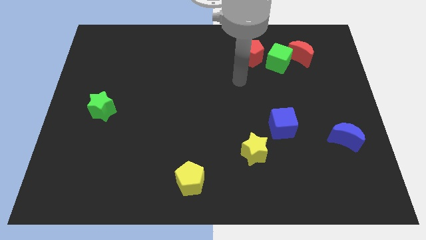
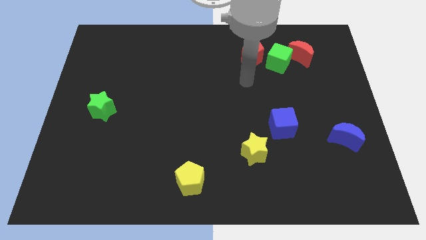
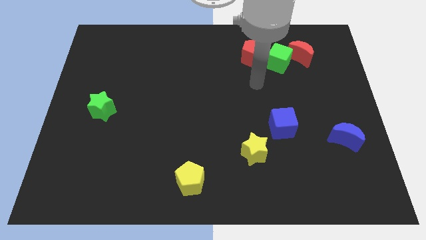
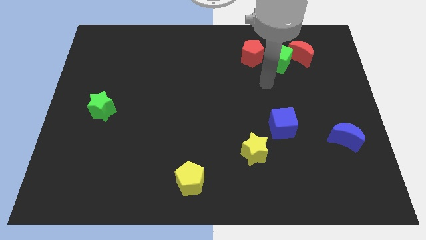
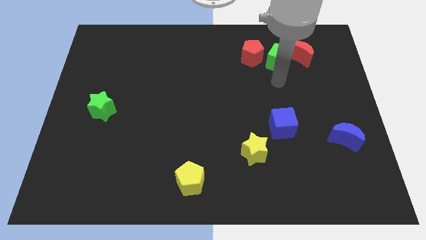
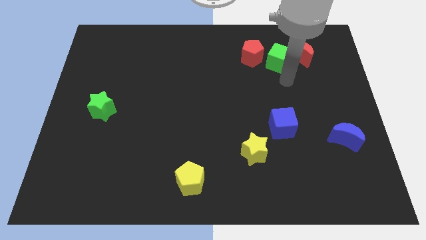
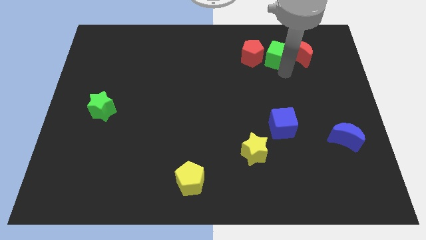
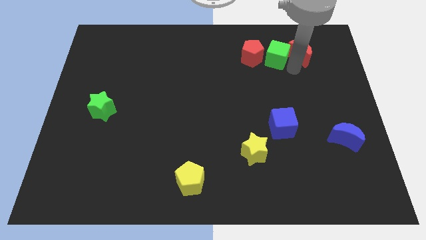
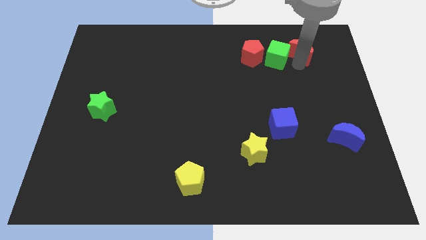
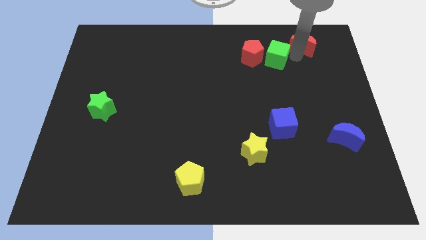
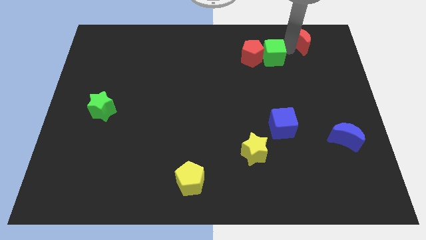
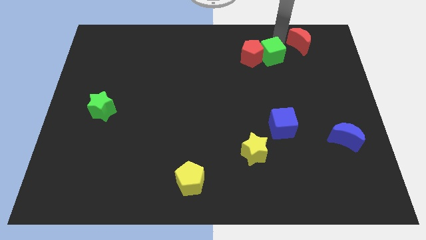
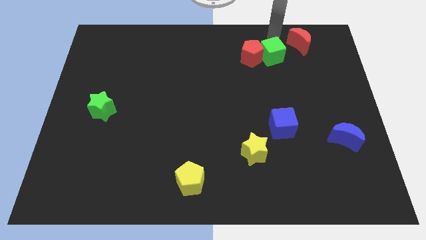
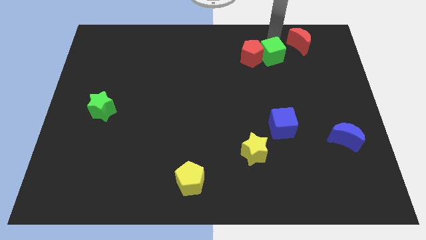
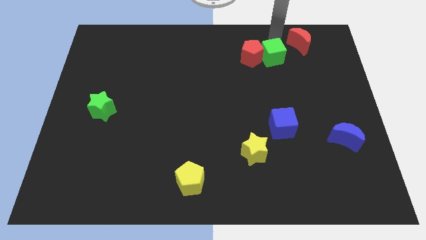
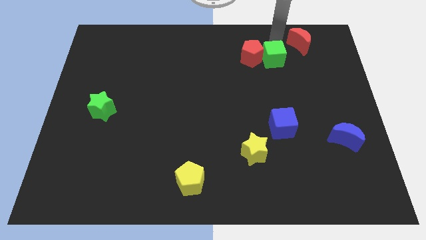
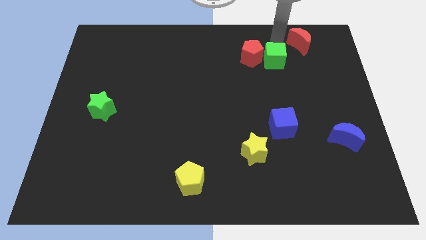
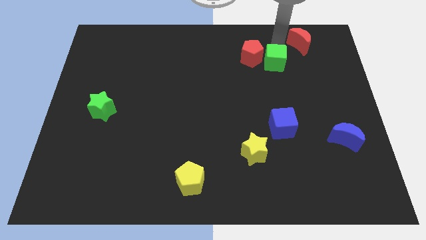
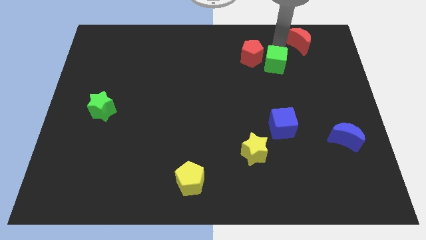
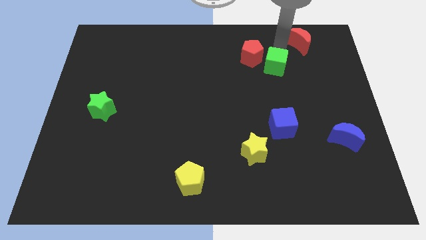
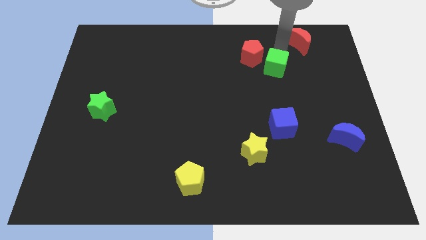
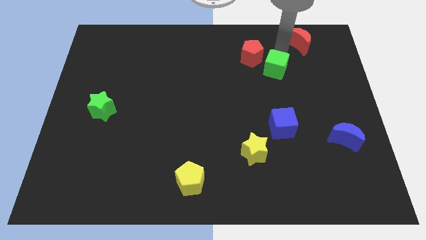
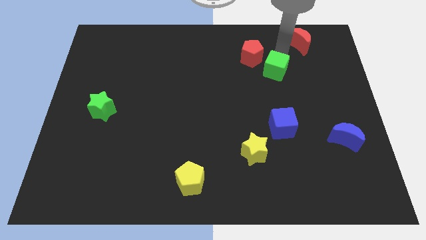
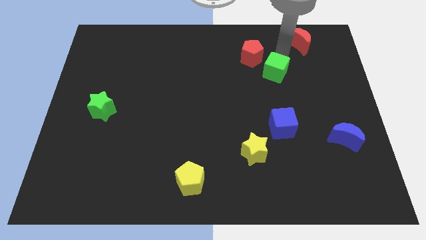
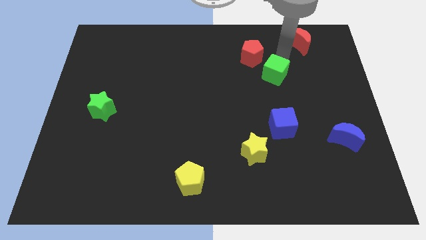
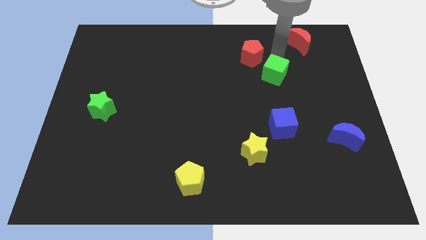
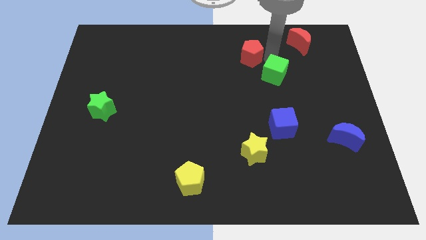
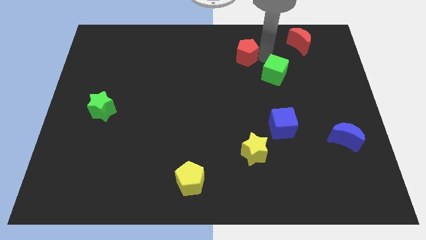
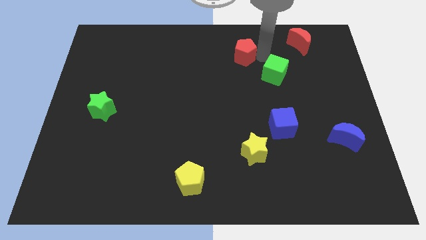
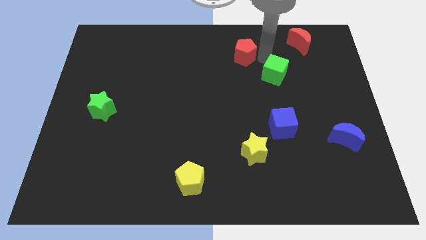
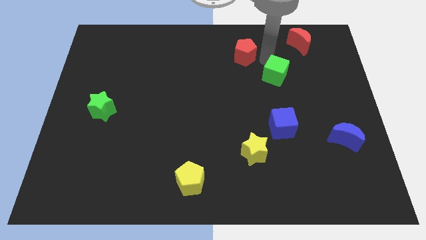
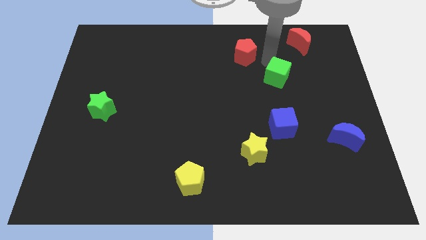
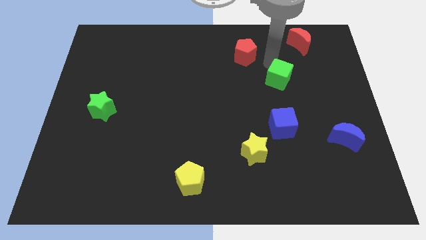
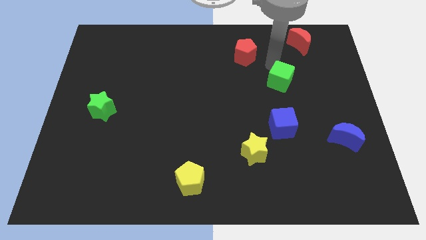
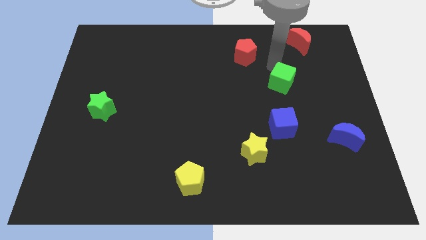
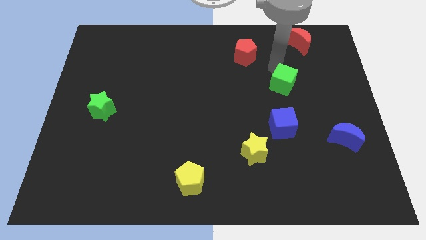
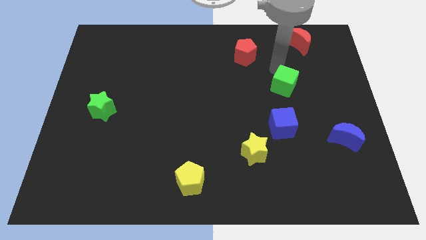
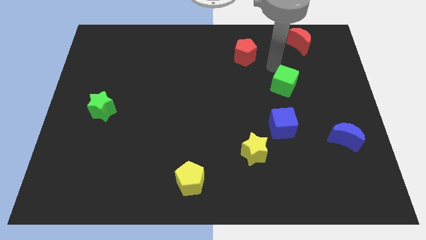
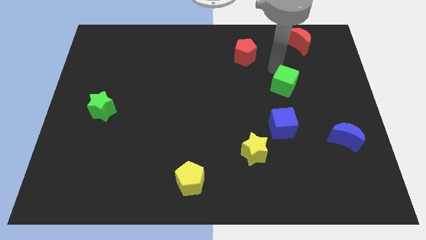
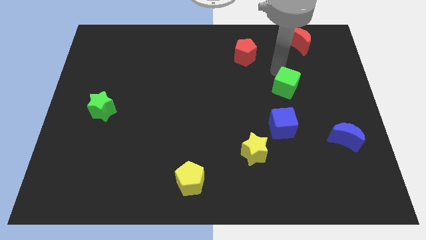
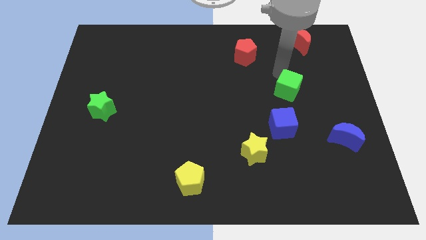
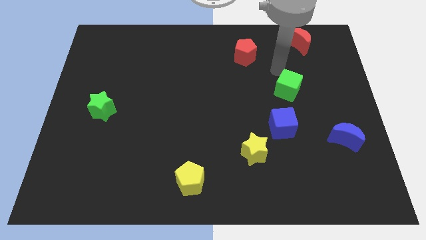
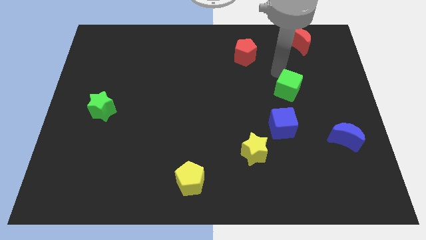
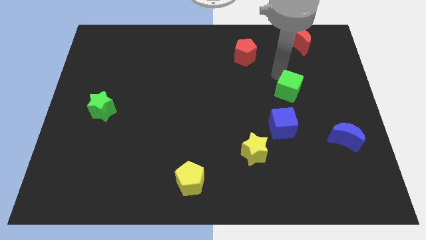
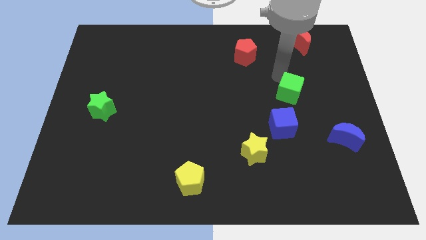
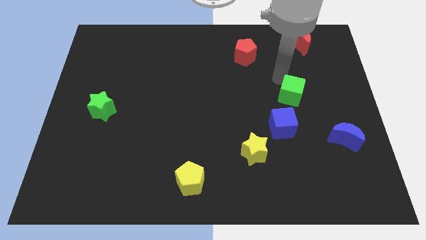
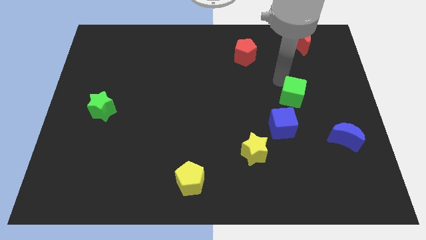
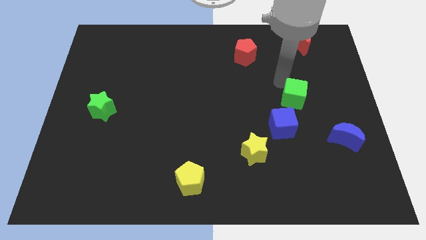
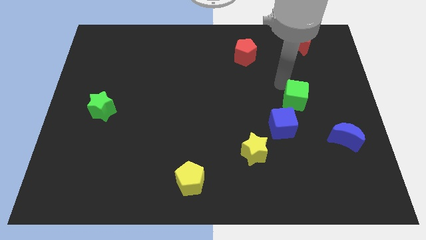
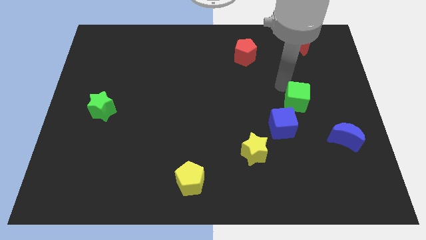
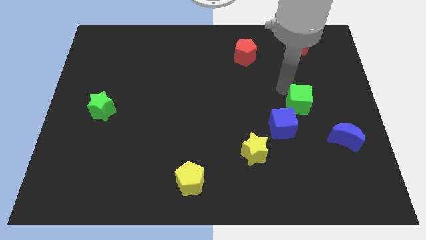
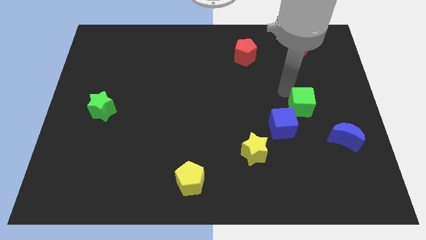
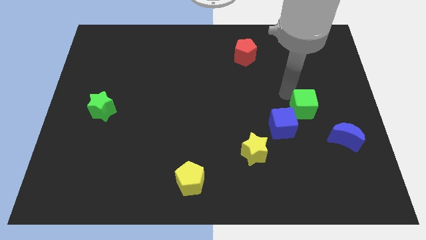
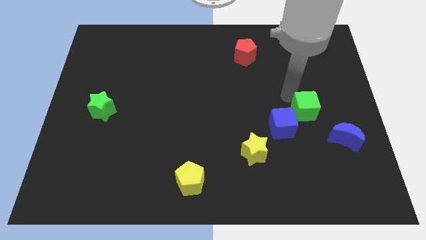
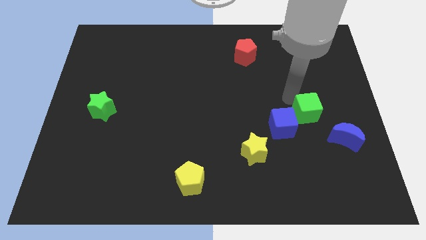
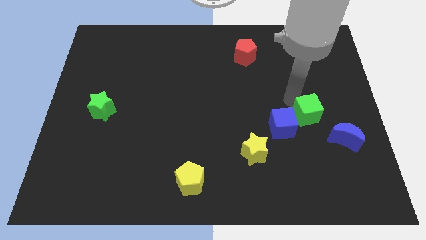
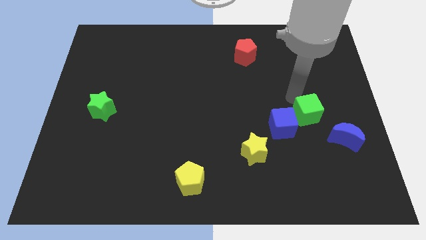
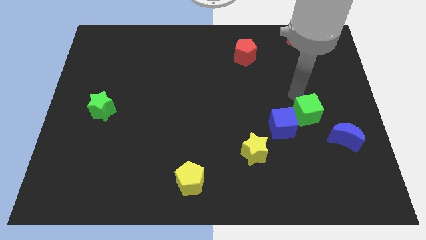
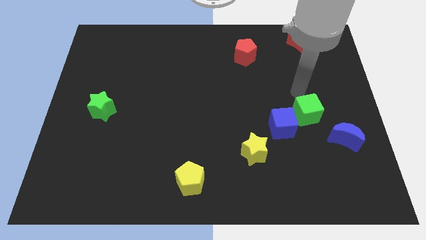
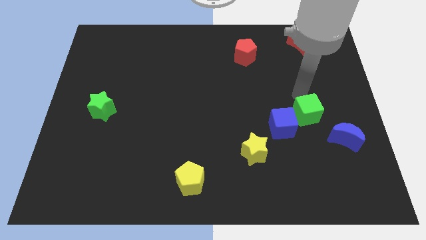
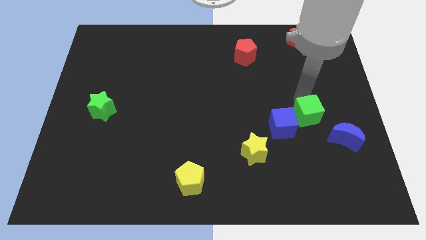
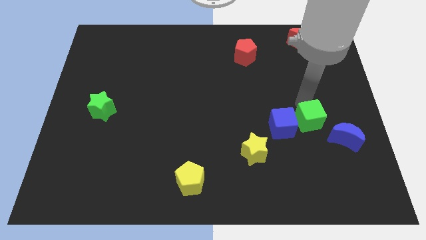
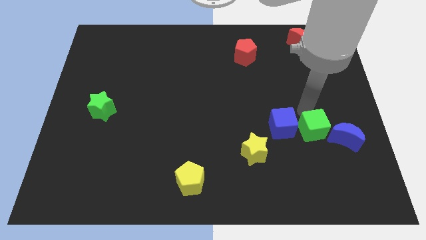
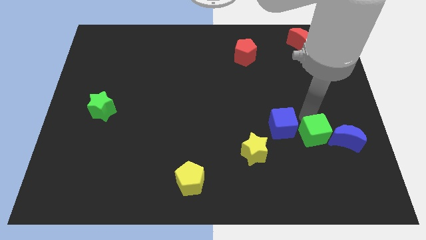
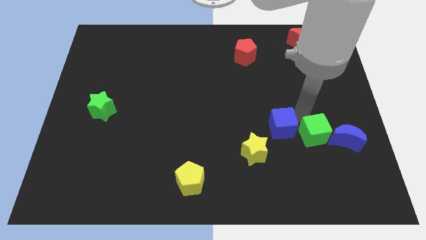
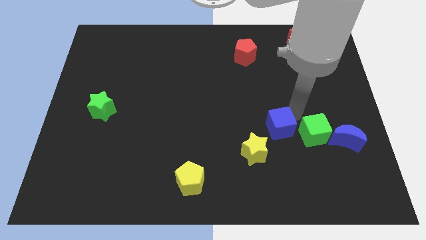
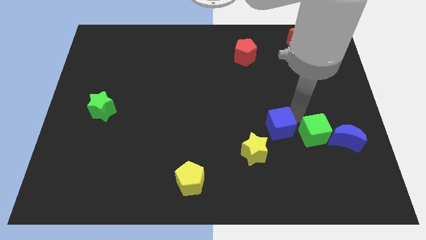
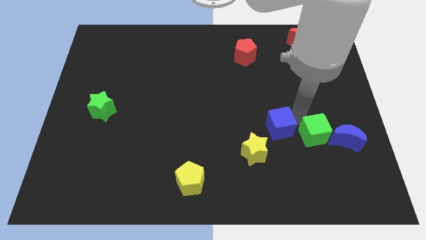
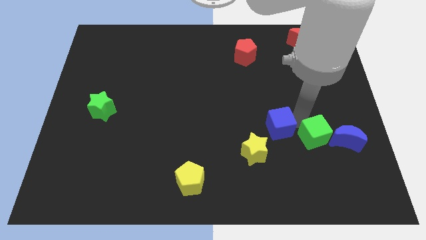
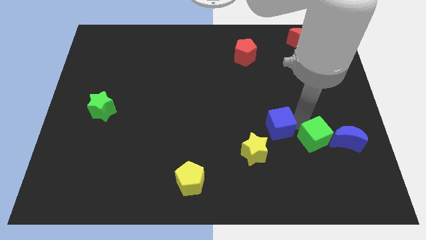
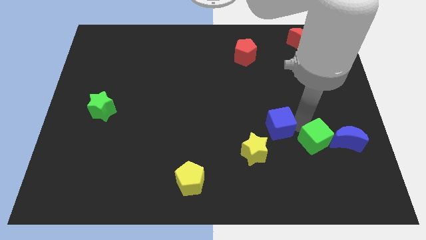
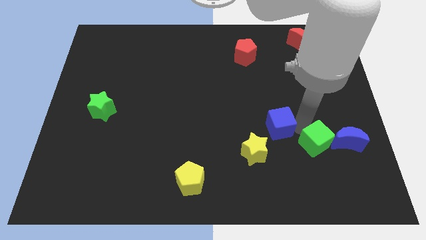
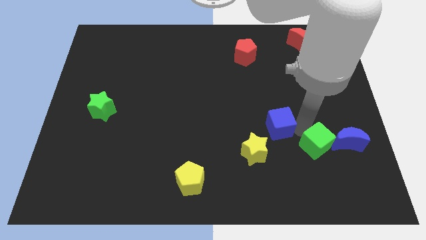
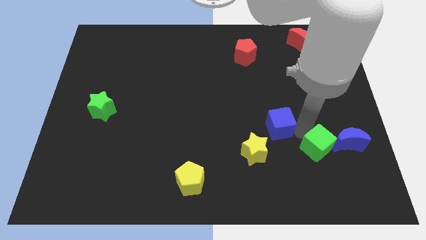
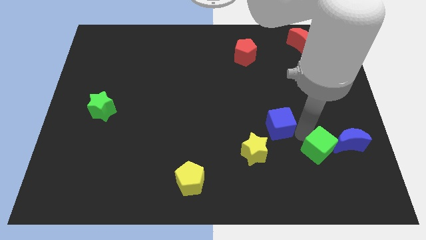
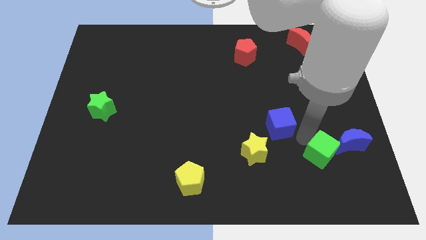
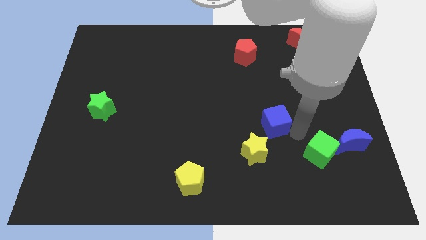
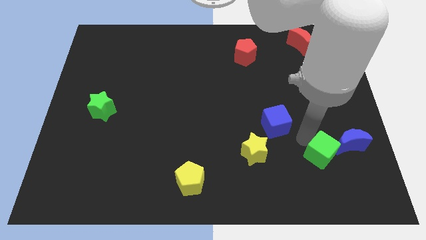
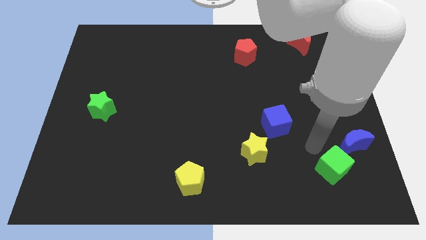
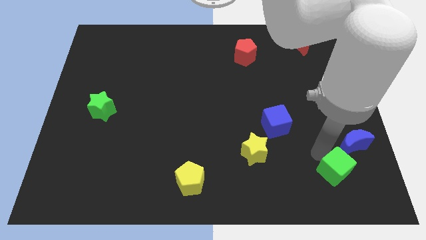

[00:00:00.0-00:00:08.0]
slide the green cube to the bottom side of the blue moon

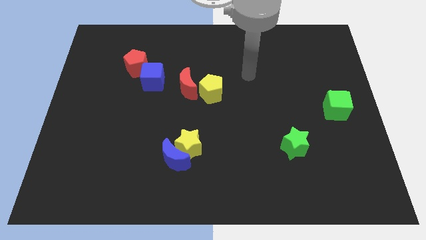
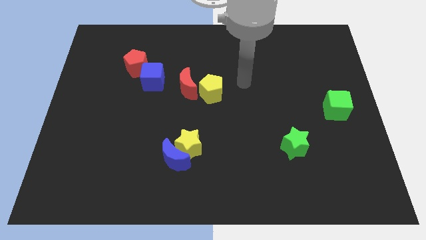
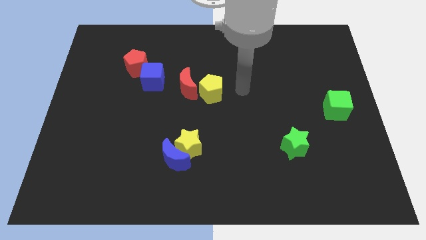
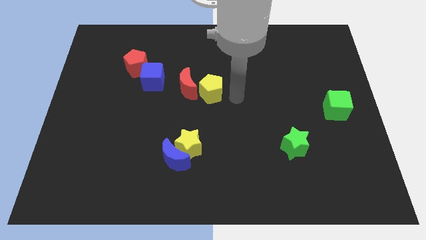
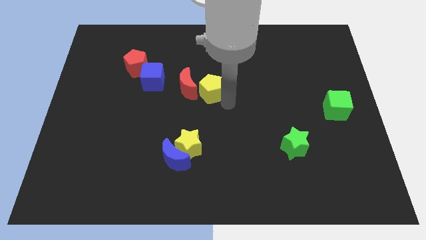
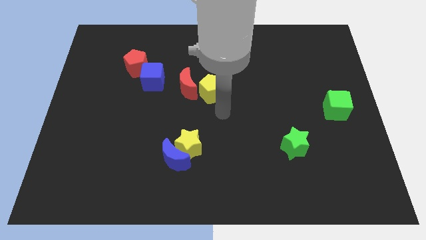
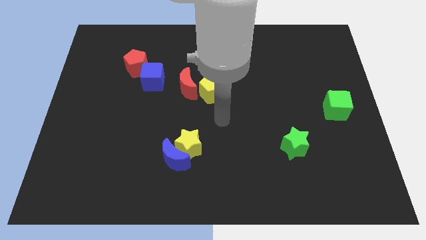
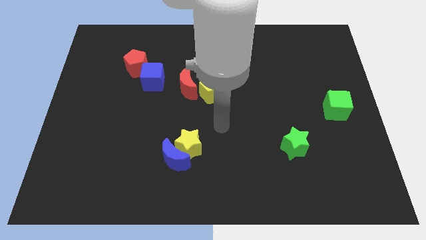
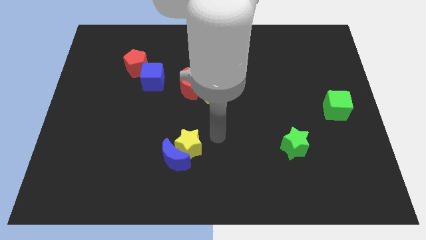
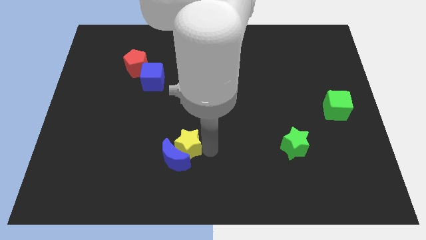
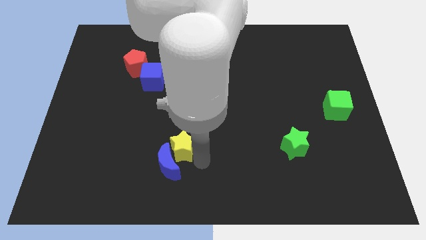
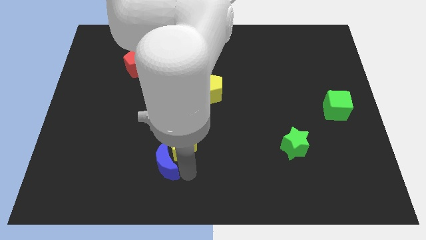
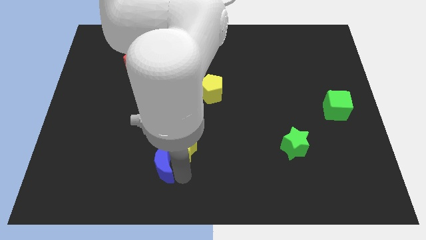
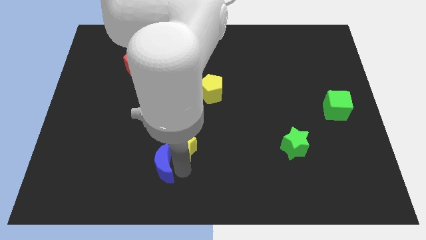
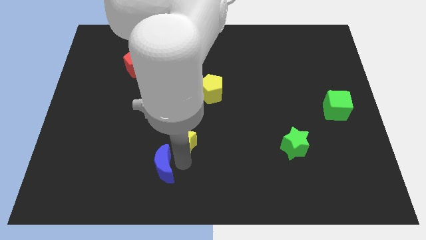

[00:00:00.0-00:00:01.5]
put the yellow star to the bottom side of the red moon
